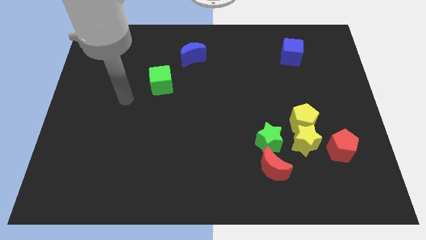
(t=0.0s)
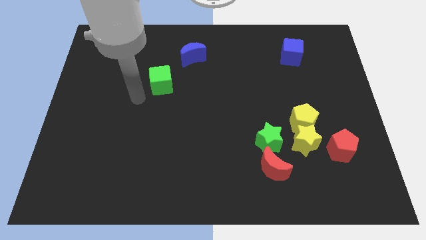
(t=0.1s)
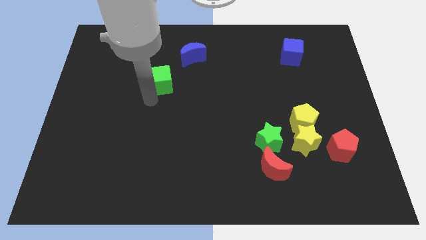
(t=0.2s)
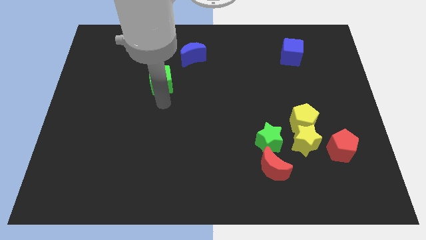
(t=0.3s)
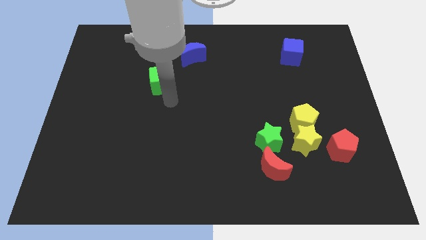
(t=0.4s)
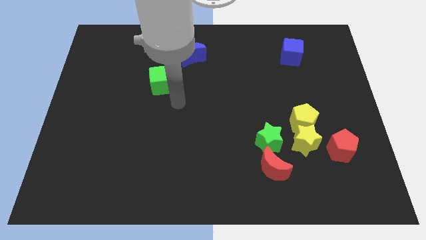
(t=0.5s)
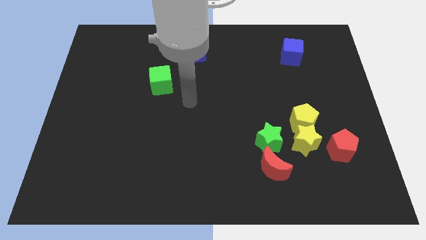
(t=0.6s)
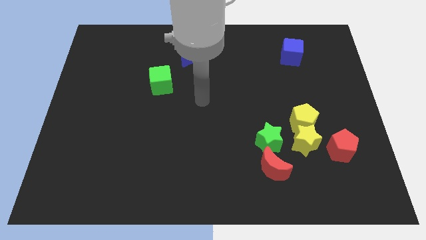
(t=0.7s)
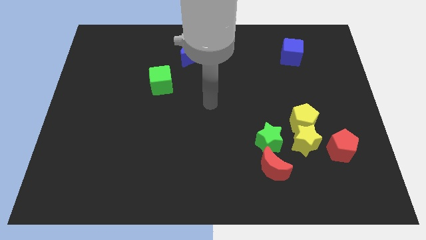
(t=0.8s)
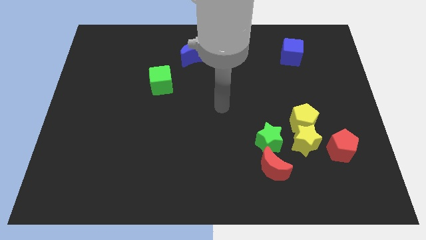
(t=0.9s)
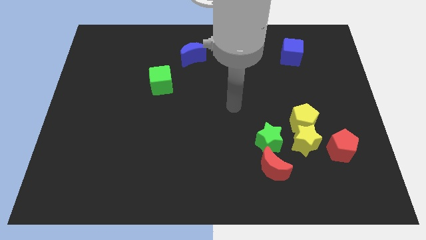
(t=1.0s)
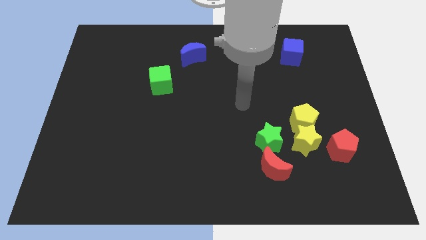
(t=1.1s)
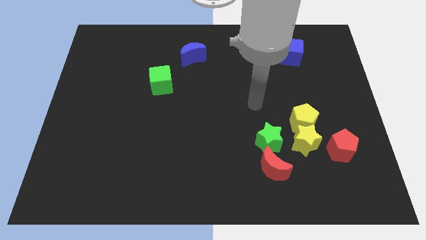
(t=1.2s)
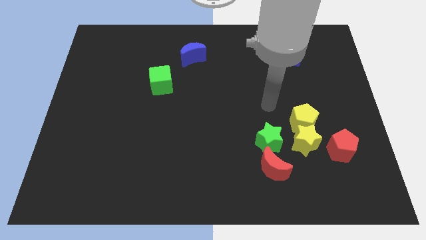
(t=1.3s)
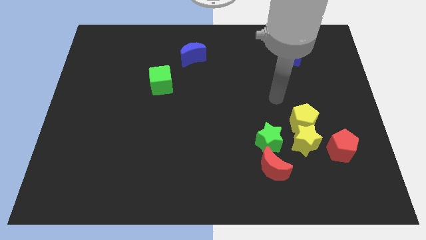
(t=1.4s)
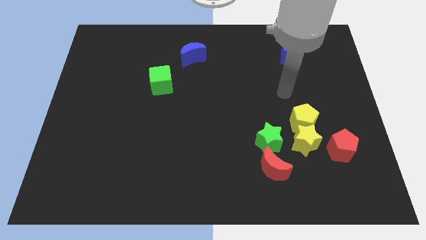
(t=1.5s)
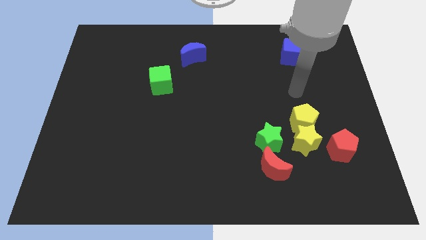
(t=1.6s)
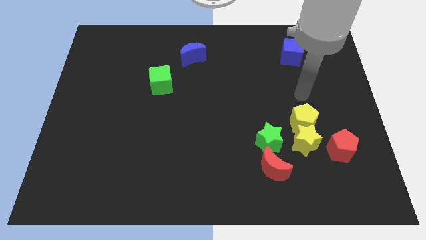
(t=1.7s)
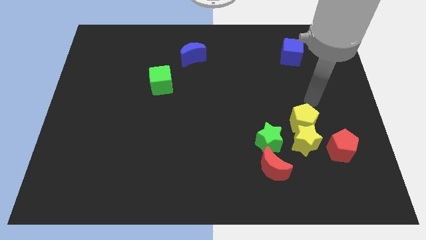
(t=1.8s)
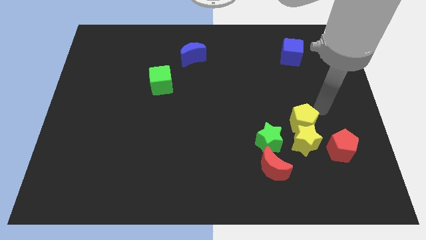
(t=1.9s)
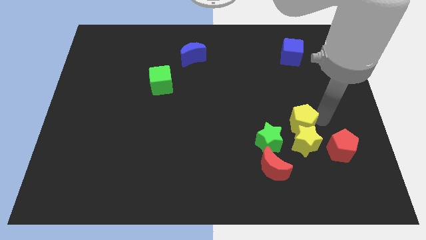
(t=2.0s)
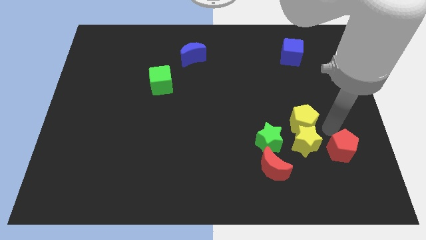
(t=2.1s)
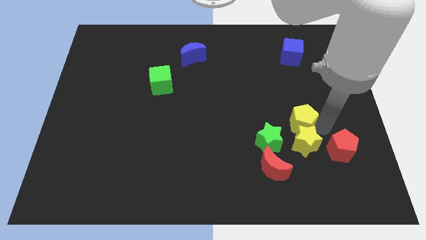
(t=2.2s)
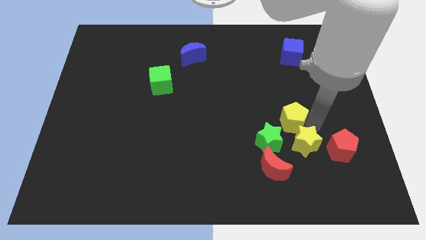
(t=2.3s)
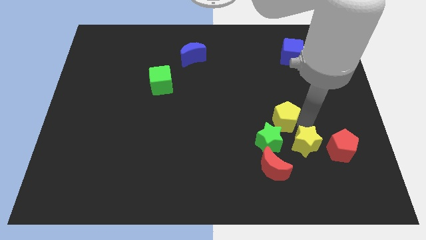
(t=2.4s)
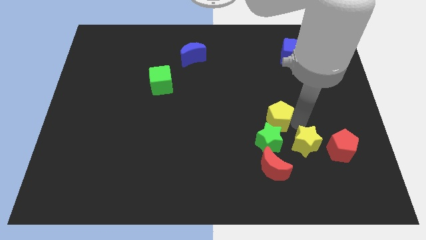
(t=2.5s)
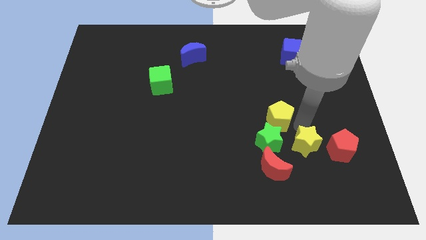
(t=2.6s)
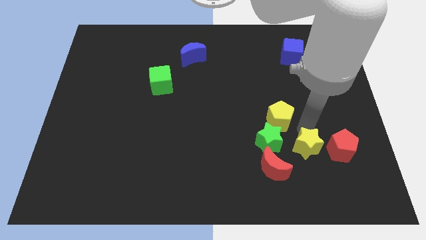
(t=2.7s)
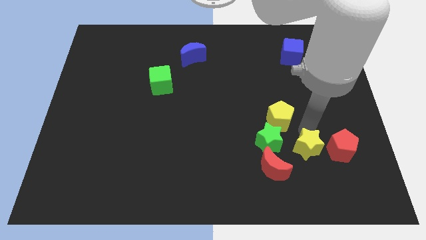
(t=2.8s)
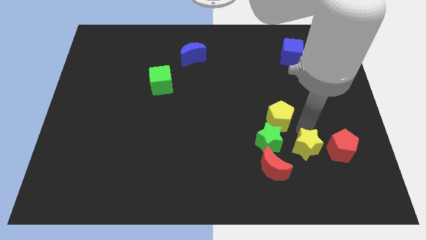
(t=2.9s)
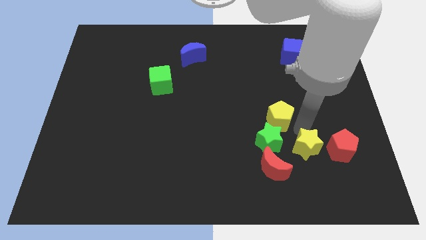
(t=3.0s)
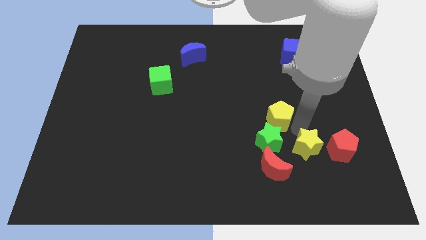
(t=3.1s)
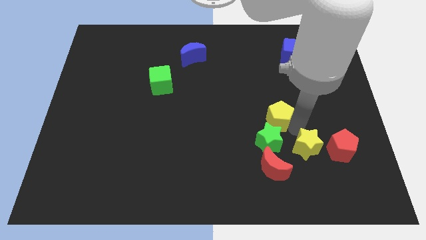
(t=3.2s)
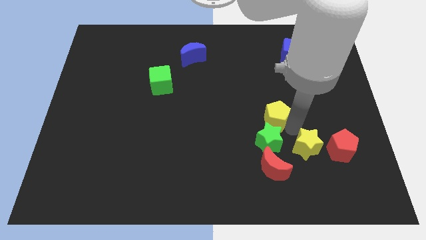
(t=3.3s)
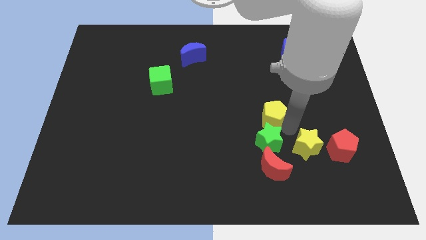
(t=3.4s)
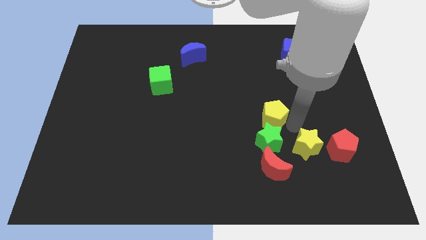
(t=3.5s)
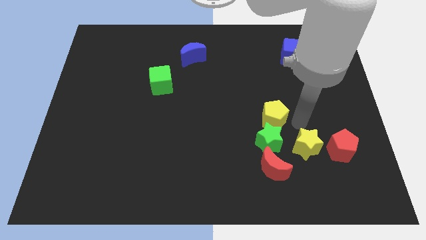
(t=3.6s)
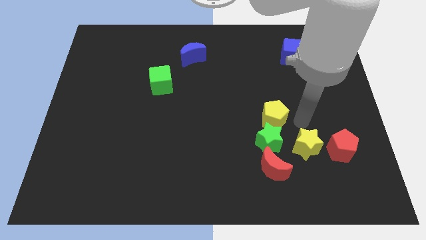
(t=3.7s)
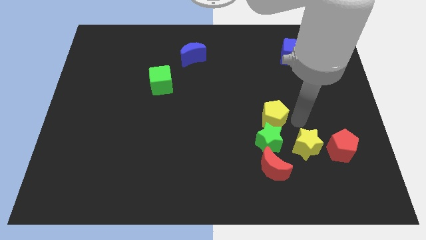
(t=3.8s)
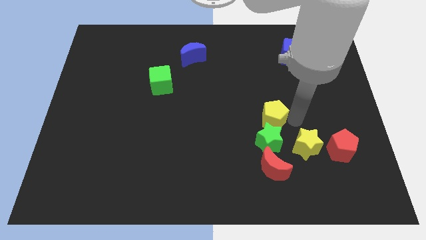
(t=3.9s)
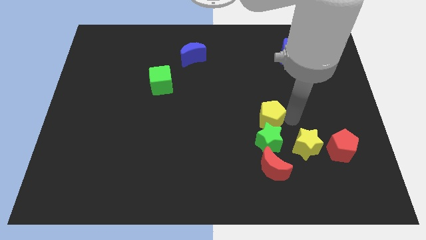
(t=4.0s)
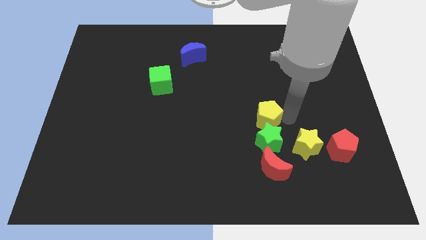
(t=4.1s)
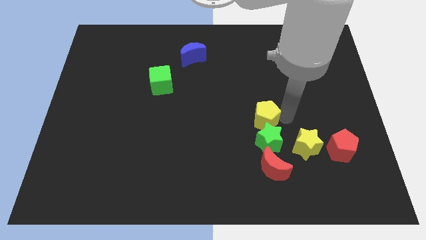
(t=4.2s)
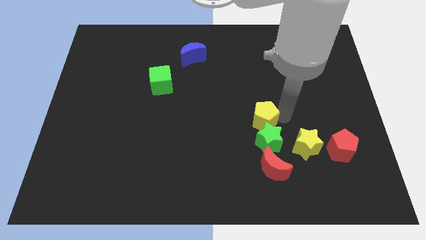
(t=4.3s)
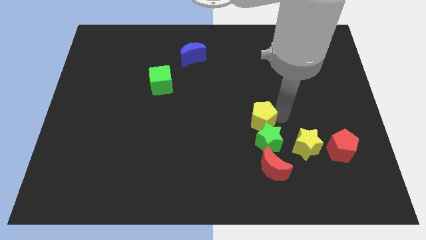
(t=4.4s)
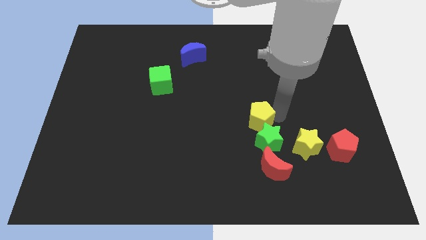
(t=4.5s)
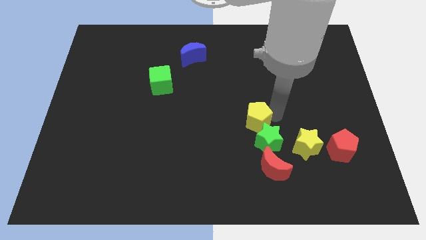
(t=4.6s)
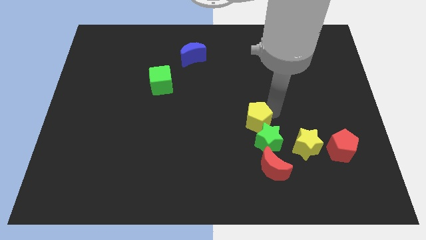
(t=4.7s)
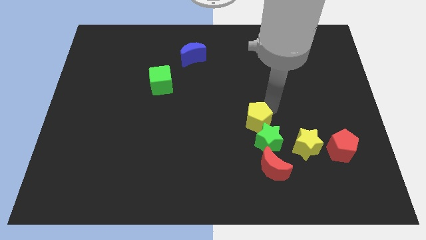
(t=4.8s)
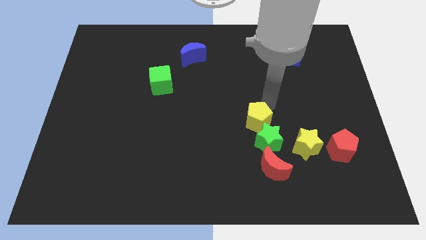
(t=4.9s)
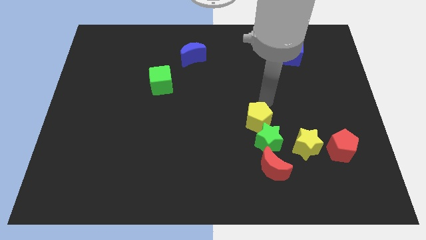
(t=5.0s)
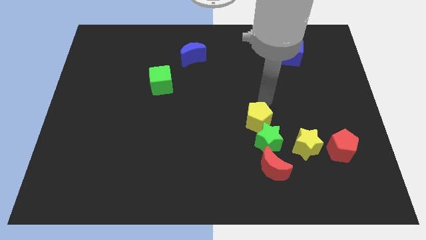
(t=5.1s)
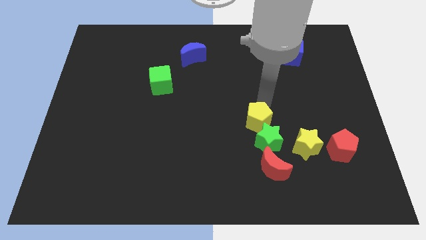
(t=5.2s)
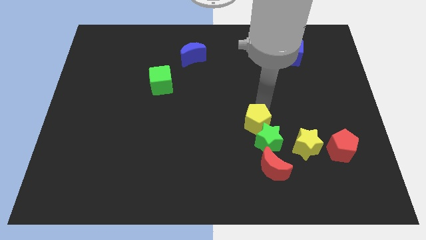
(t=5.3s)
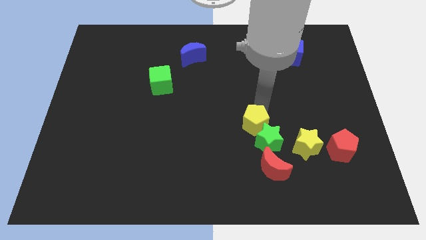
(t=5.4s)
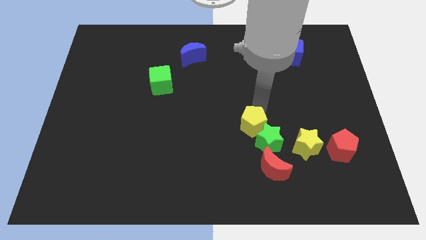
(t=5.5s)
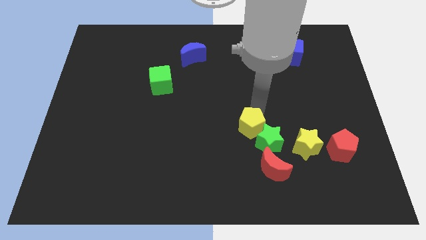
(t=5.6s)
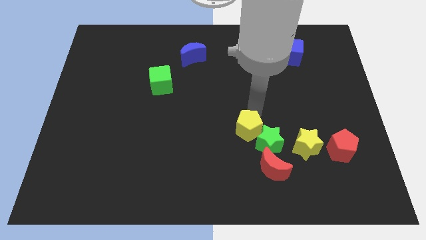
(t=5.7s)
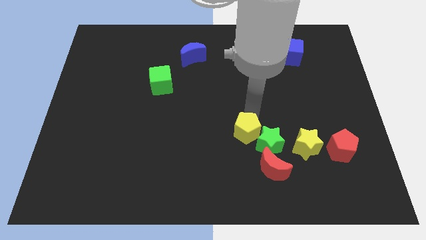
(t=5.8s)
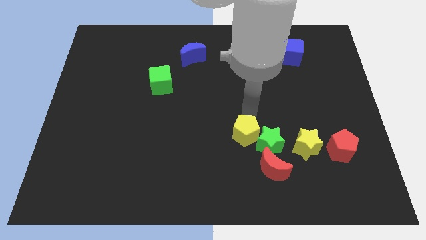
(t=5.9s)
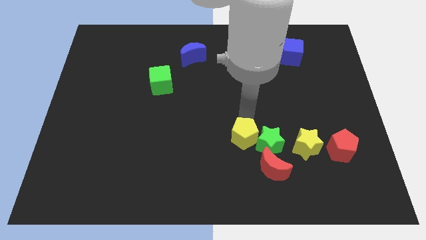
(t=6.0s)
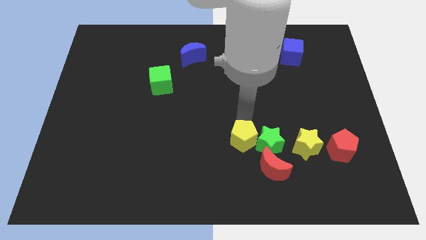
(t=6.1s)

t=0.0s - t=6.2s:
put the yellow pentagon diagonally down and to the left of the green star

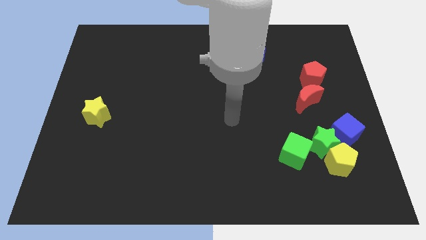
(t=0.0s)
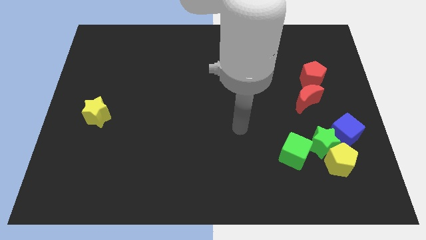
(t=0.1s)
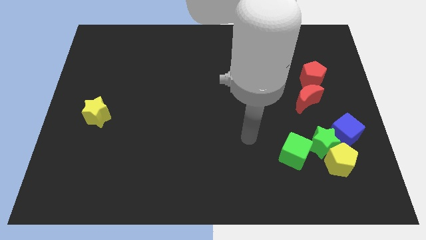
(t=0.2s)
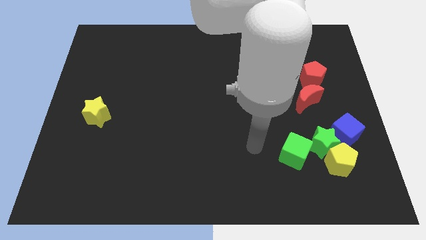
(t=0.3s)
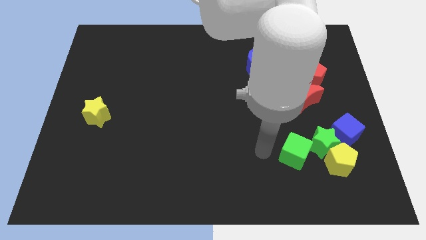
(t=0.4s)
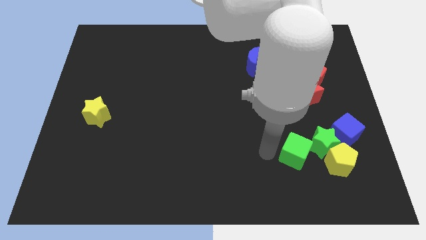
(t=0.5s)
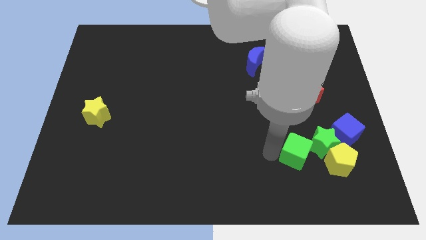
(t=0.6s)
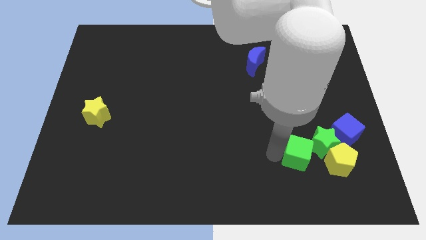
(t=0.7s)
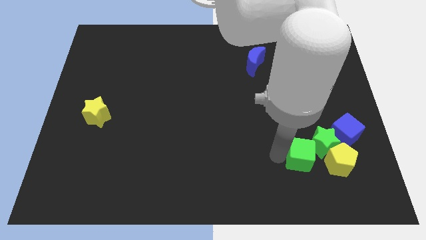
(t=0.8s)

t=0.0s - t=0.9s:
put the green cube to the bottom left side of the blue cube
